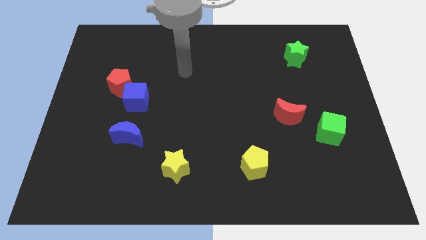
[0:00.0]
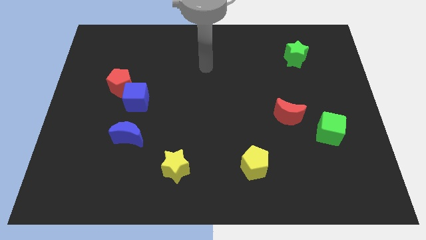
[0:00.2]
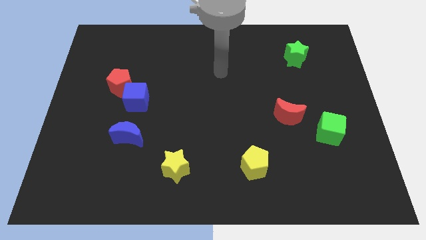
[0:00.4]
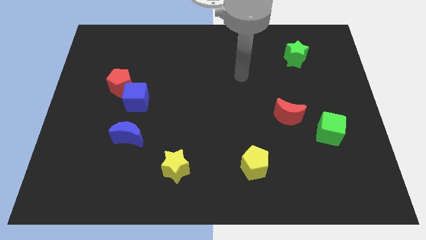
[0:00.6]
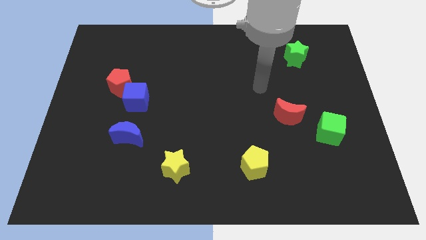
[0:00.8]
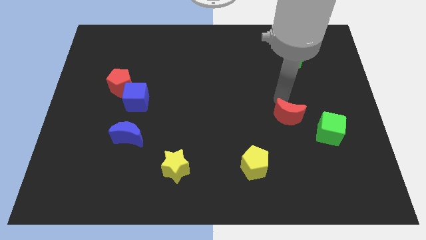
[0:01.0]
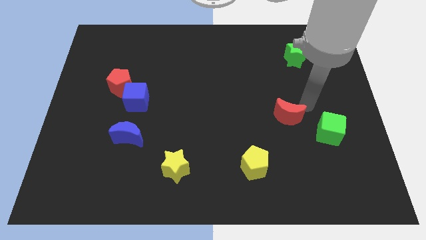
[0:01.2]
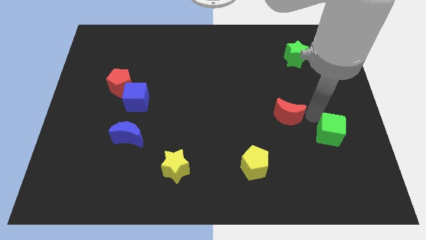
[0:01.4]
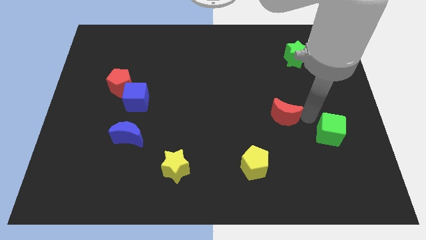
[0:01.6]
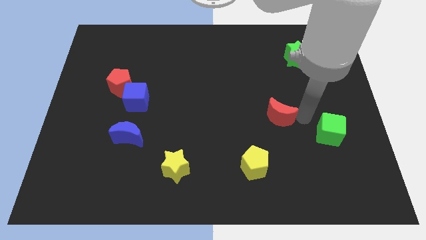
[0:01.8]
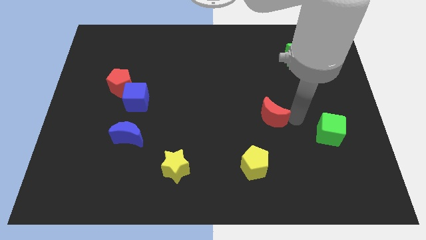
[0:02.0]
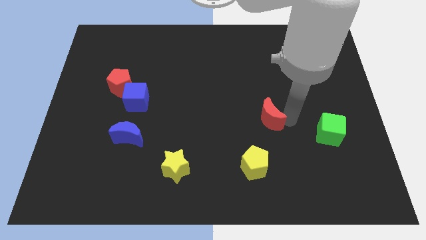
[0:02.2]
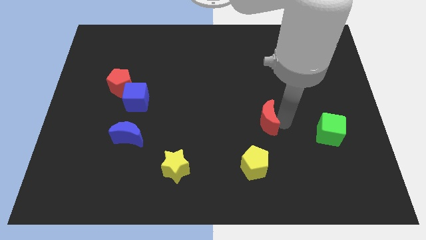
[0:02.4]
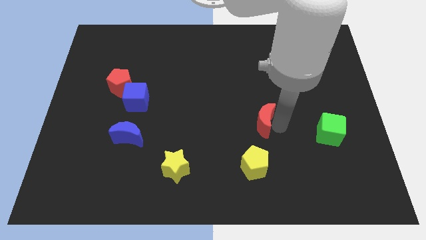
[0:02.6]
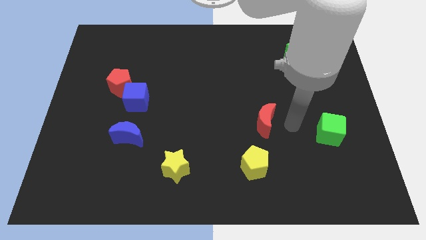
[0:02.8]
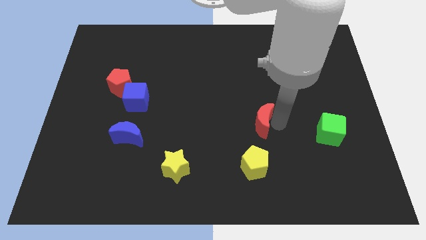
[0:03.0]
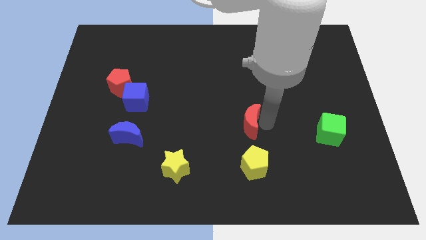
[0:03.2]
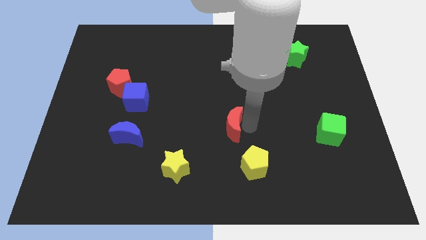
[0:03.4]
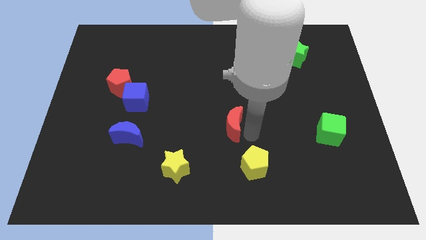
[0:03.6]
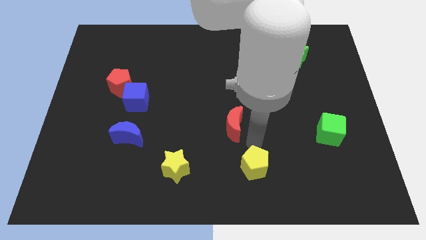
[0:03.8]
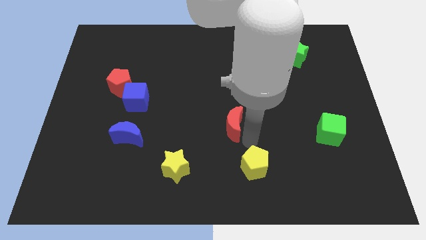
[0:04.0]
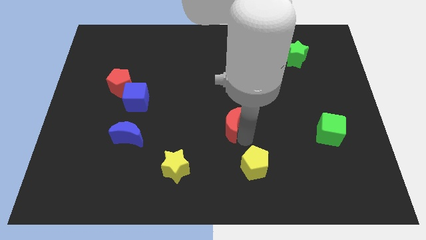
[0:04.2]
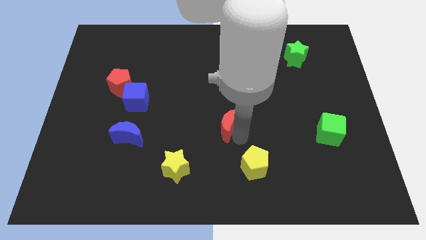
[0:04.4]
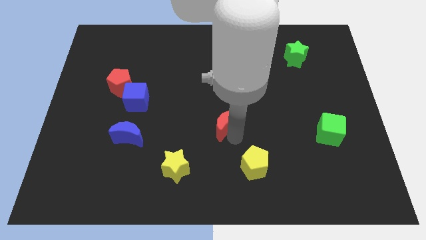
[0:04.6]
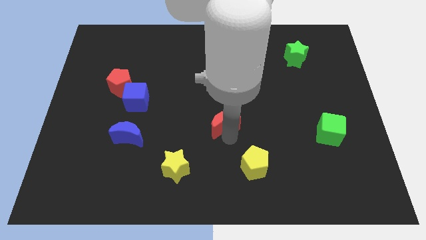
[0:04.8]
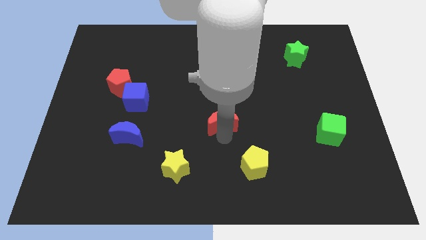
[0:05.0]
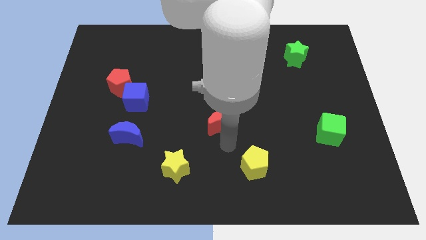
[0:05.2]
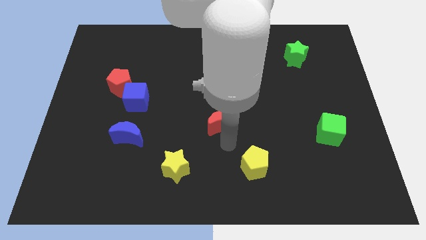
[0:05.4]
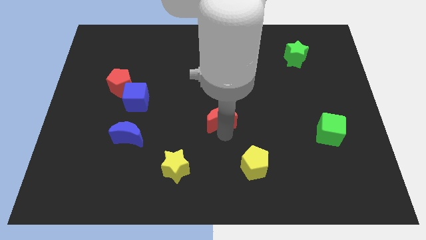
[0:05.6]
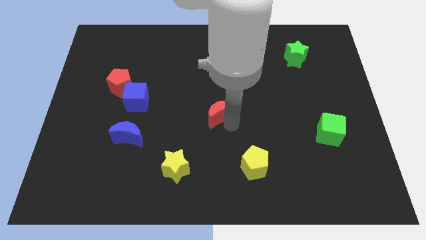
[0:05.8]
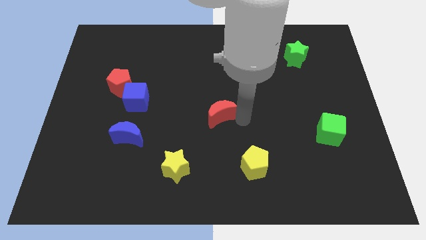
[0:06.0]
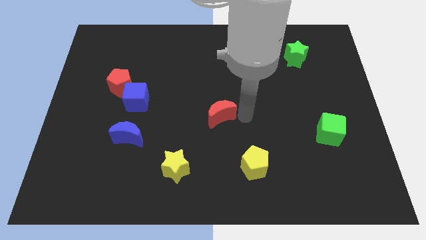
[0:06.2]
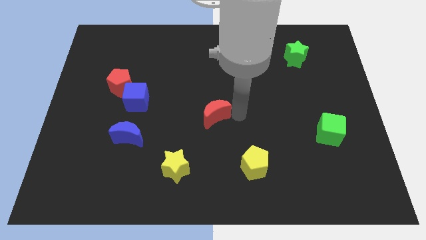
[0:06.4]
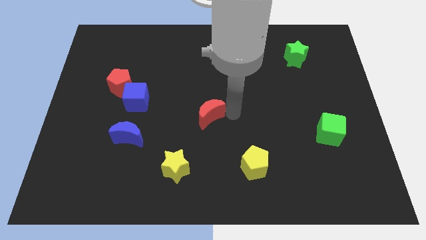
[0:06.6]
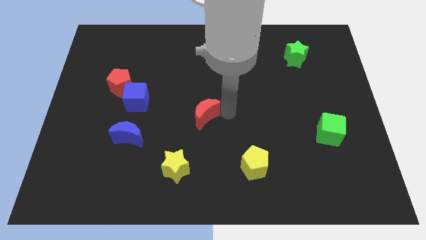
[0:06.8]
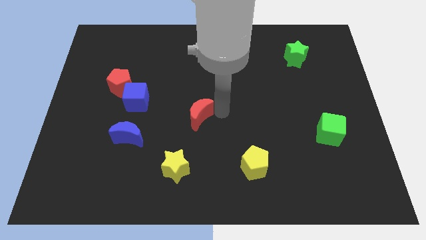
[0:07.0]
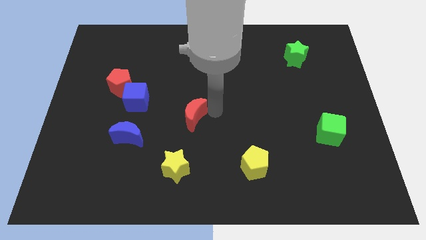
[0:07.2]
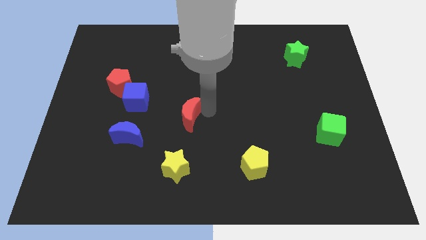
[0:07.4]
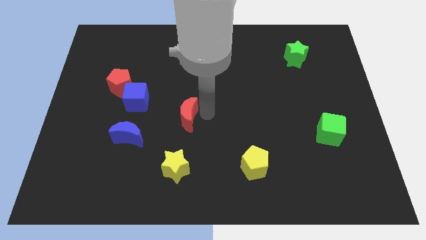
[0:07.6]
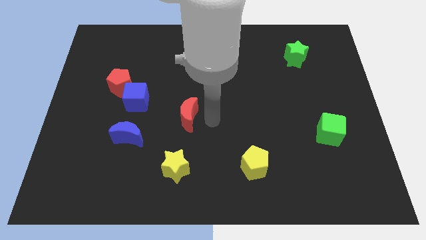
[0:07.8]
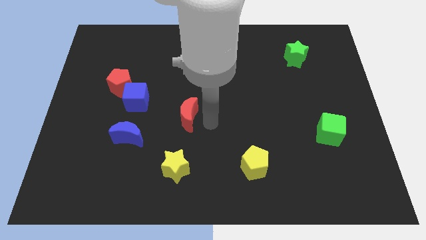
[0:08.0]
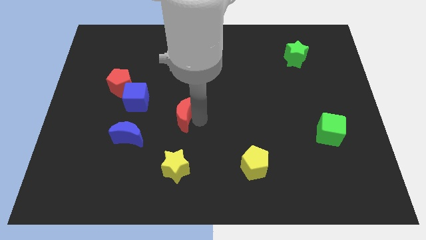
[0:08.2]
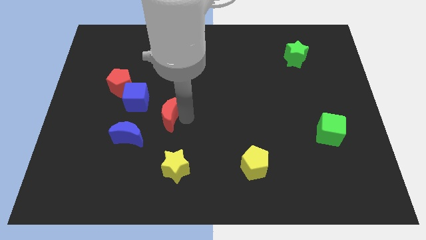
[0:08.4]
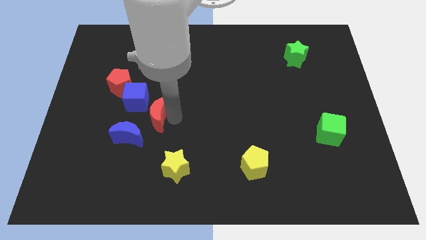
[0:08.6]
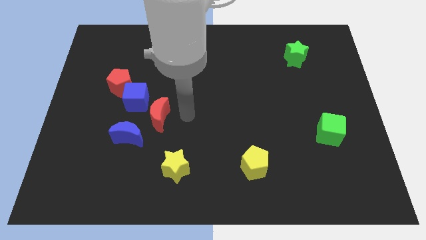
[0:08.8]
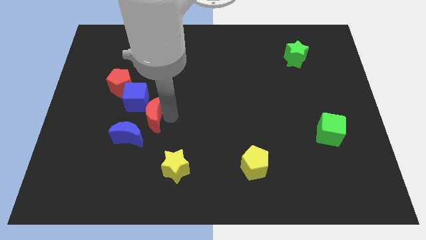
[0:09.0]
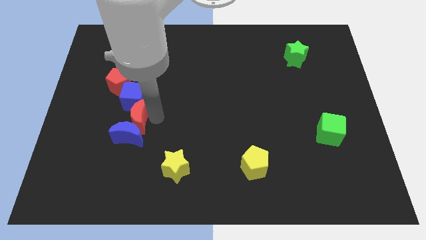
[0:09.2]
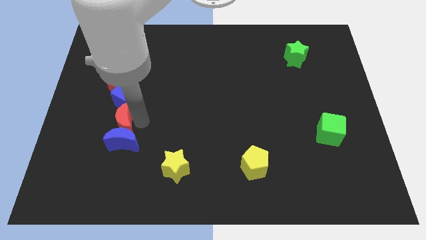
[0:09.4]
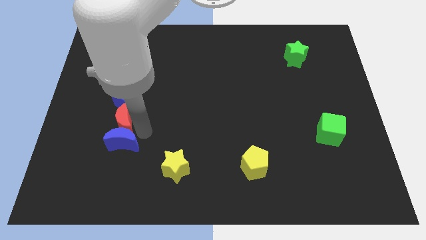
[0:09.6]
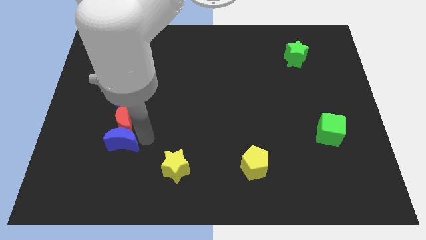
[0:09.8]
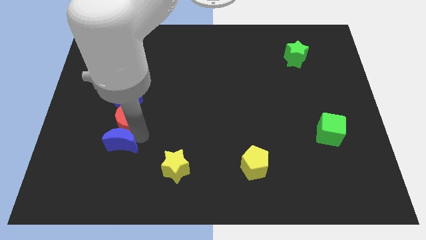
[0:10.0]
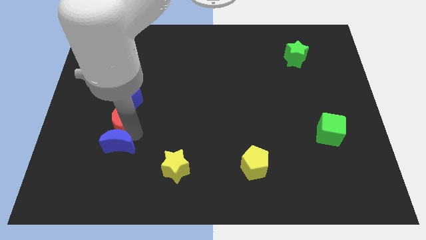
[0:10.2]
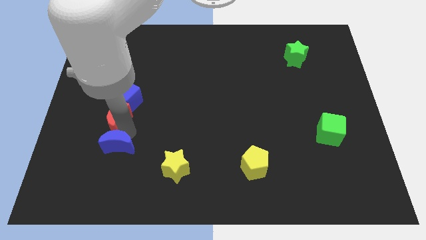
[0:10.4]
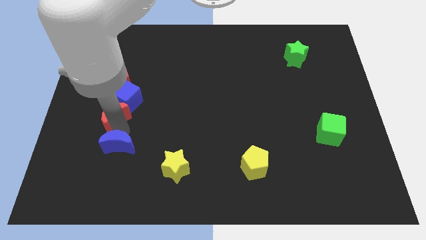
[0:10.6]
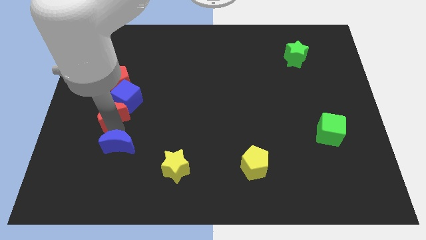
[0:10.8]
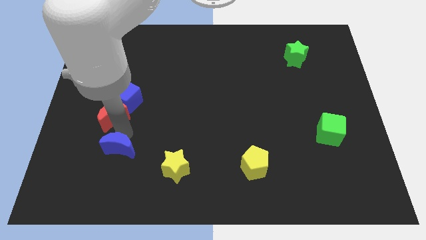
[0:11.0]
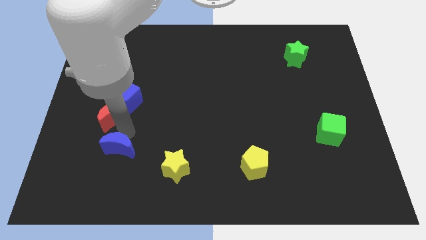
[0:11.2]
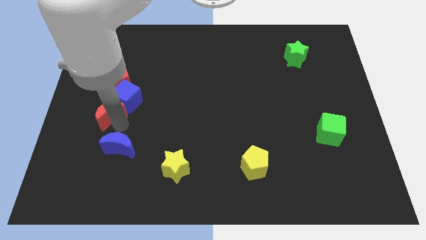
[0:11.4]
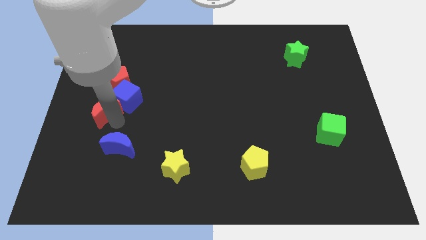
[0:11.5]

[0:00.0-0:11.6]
push the red moon to the left of the blue cube

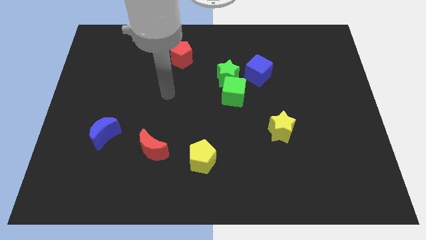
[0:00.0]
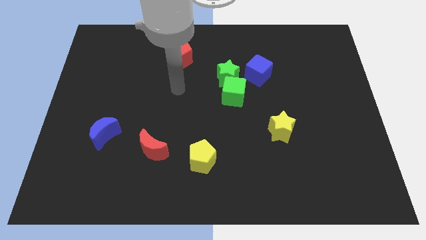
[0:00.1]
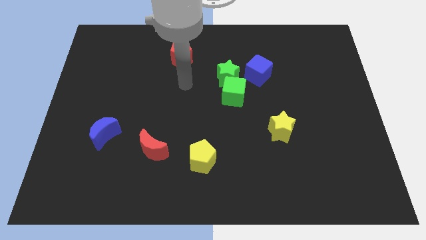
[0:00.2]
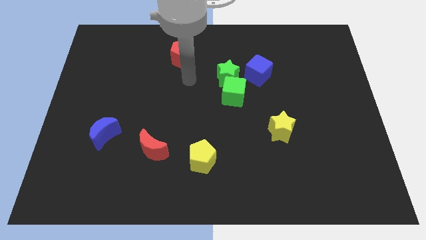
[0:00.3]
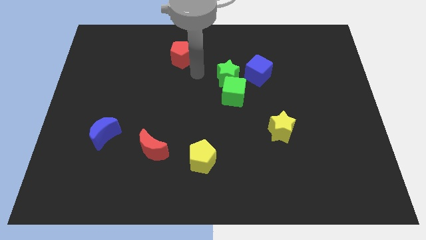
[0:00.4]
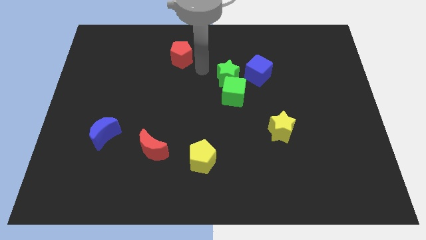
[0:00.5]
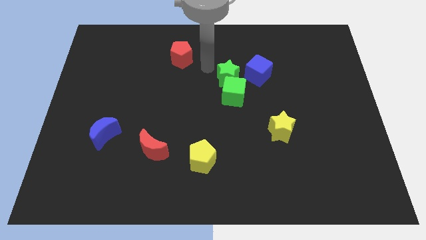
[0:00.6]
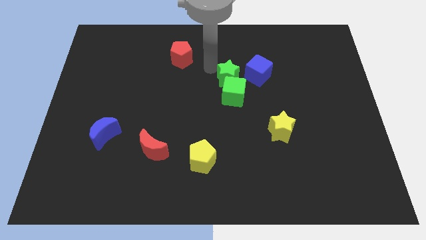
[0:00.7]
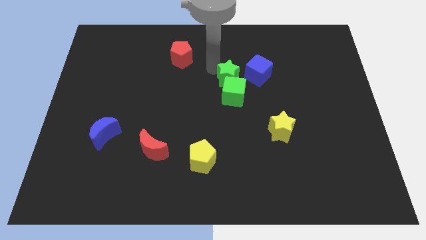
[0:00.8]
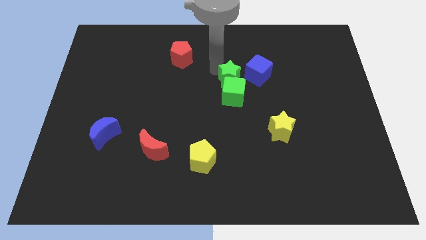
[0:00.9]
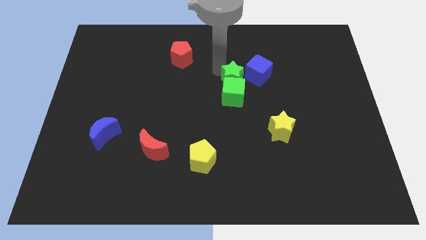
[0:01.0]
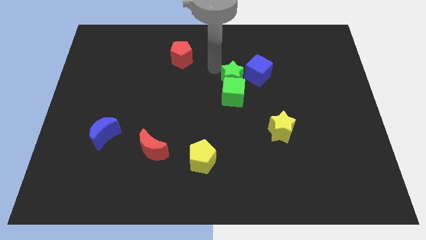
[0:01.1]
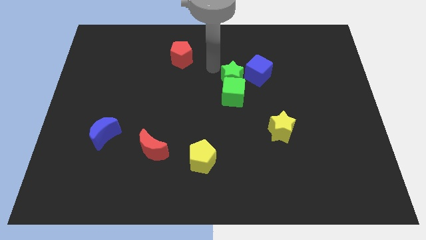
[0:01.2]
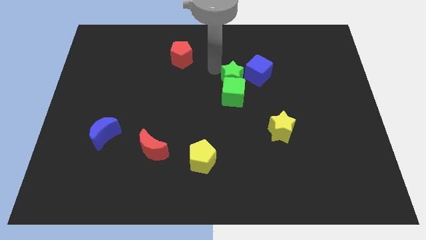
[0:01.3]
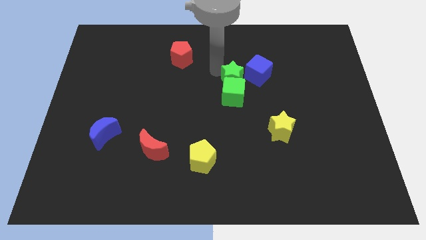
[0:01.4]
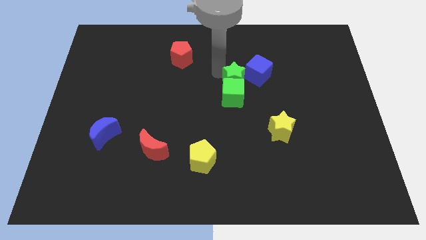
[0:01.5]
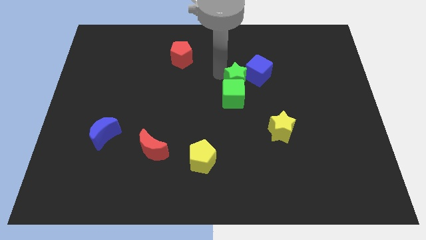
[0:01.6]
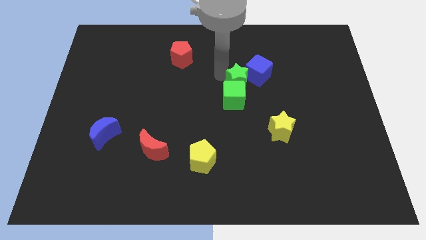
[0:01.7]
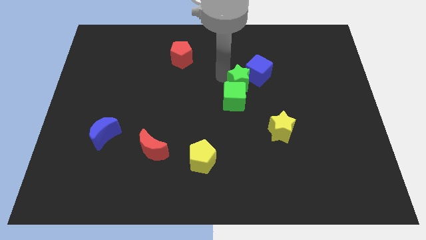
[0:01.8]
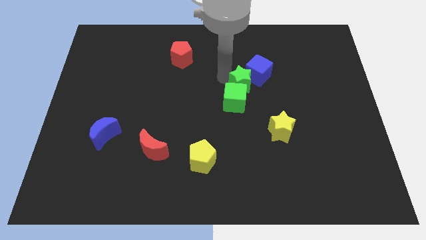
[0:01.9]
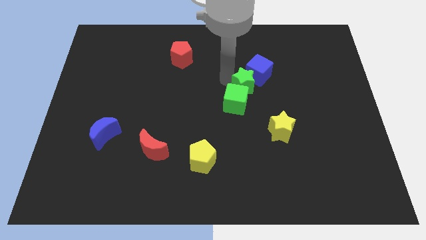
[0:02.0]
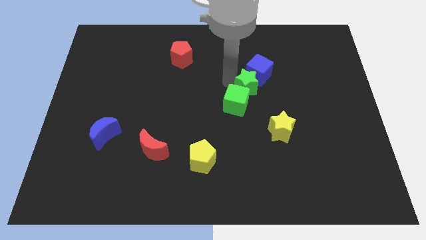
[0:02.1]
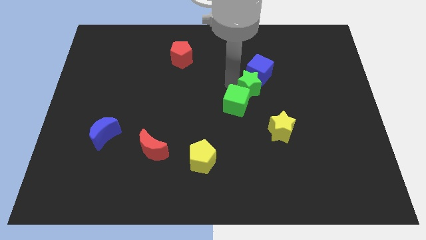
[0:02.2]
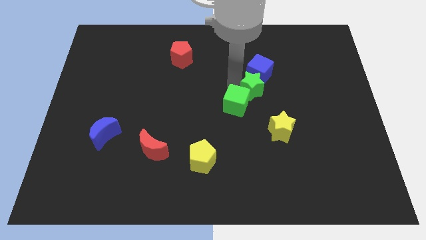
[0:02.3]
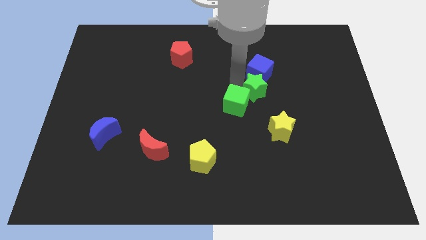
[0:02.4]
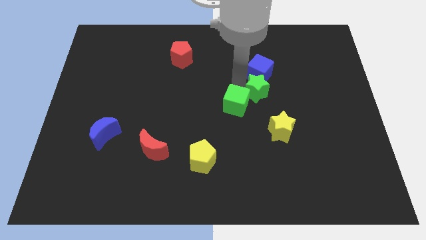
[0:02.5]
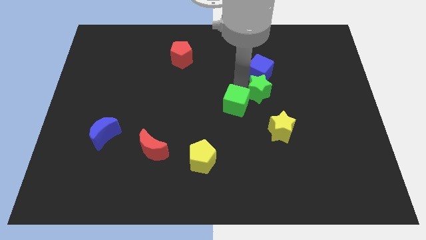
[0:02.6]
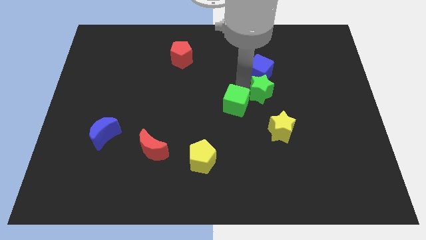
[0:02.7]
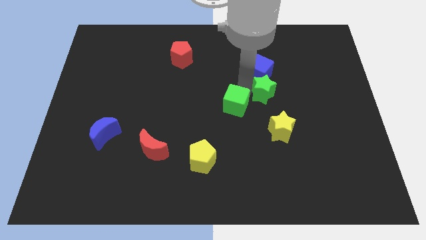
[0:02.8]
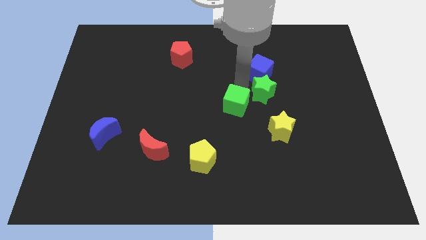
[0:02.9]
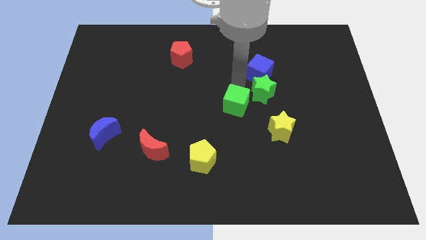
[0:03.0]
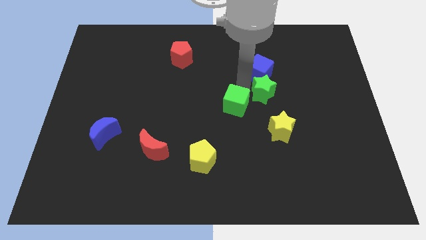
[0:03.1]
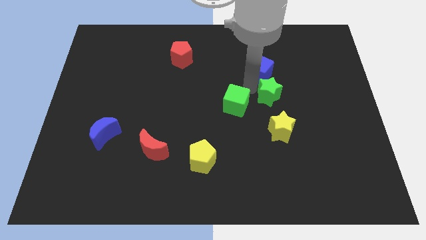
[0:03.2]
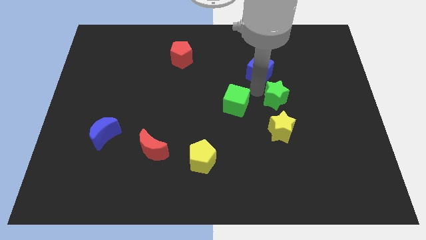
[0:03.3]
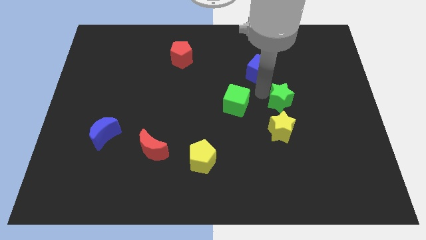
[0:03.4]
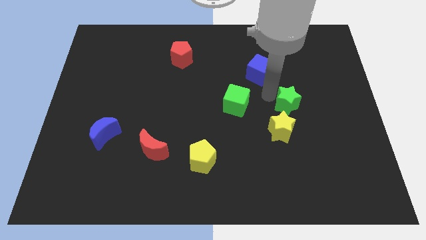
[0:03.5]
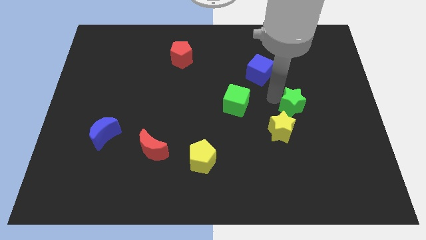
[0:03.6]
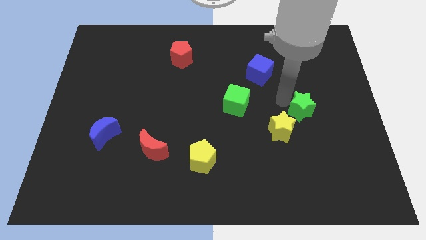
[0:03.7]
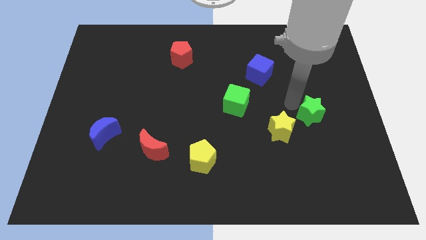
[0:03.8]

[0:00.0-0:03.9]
move the green star just right of the yellow star
